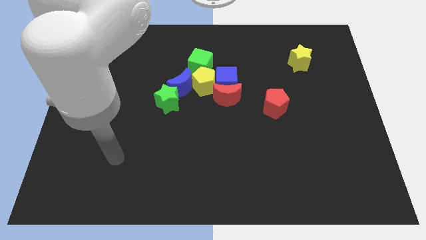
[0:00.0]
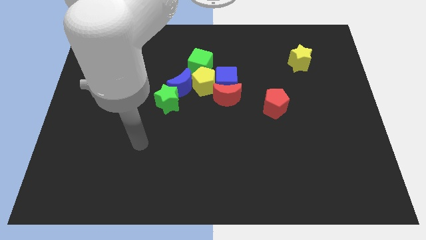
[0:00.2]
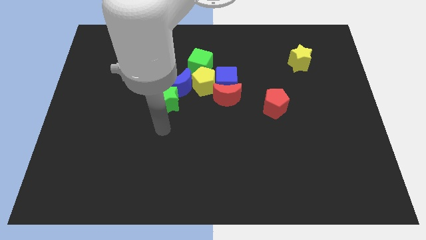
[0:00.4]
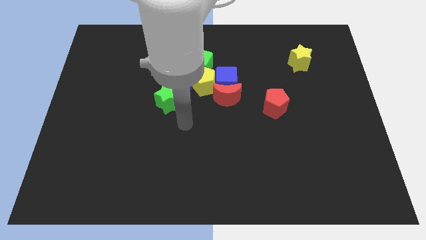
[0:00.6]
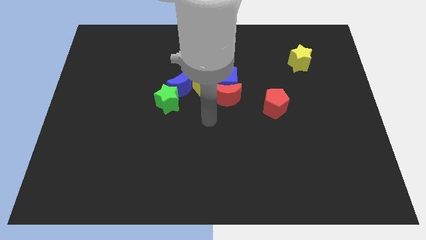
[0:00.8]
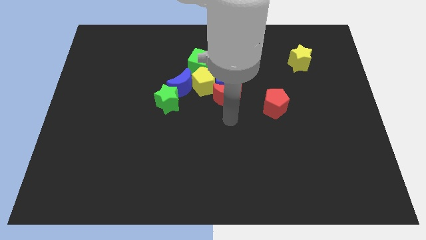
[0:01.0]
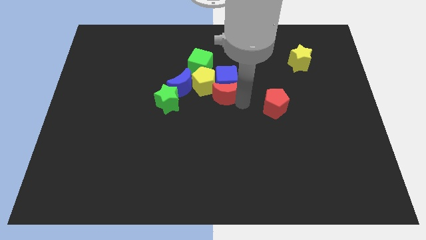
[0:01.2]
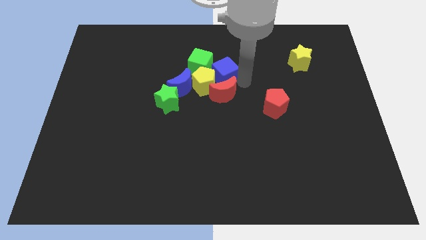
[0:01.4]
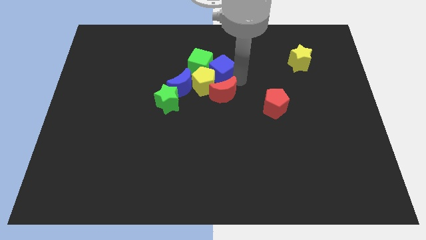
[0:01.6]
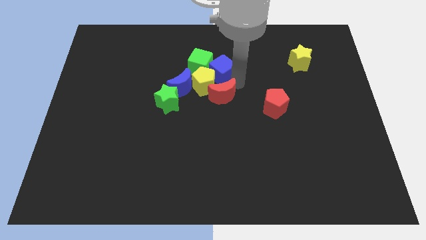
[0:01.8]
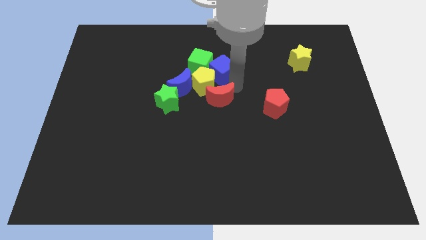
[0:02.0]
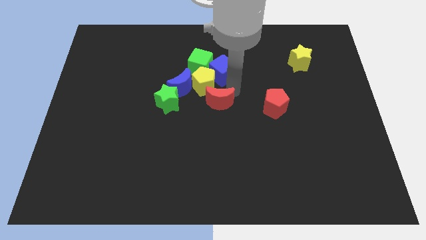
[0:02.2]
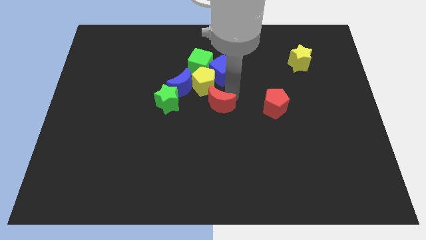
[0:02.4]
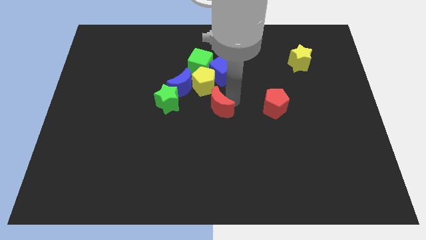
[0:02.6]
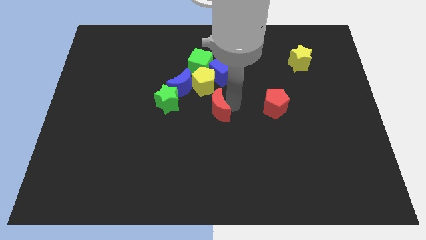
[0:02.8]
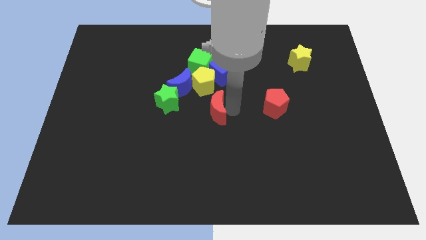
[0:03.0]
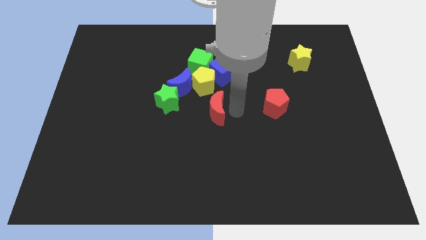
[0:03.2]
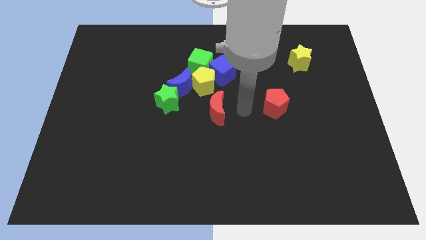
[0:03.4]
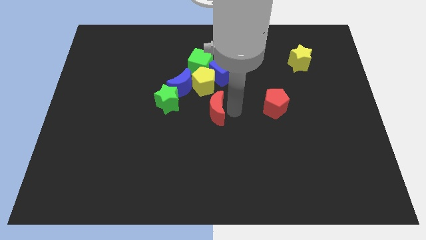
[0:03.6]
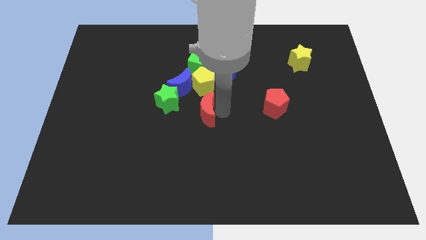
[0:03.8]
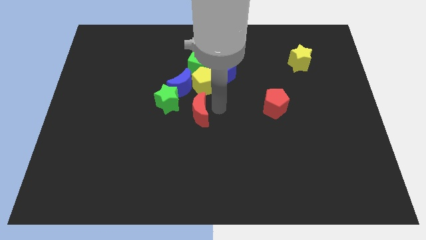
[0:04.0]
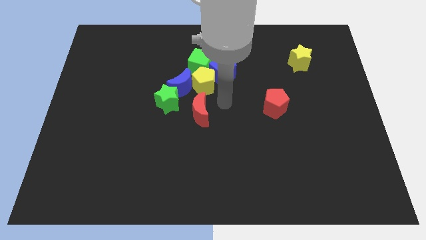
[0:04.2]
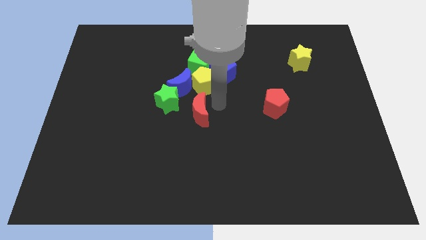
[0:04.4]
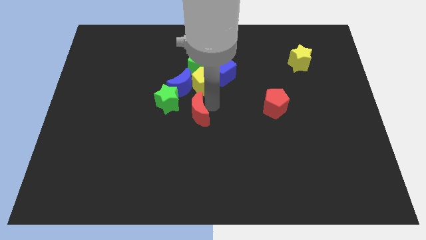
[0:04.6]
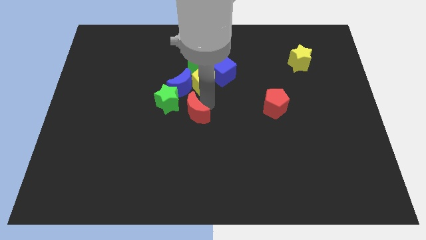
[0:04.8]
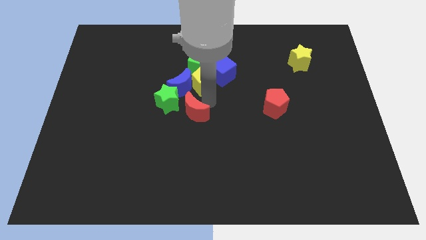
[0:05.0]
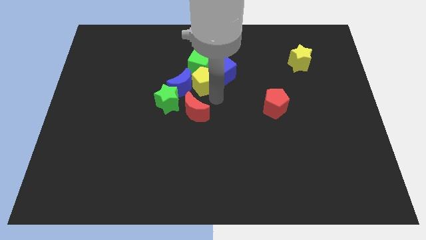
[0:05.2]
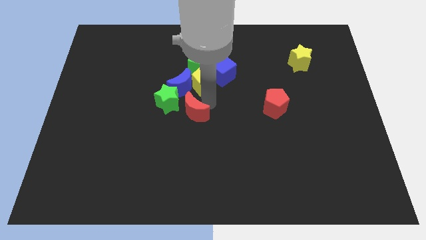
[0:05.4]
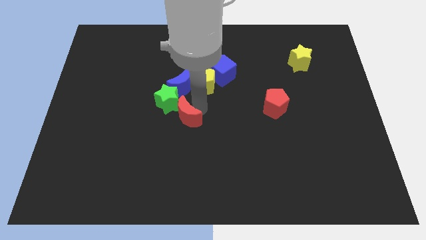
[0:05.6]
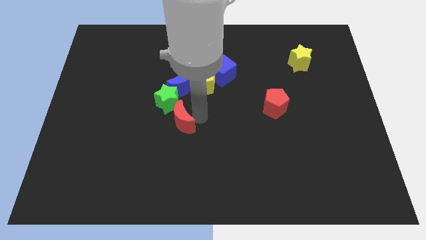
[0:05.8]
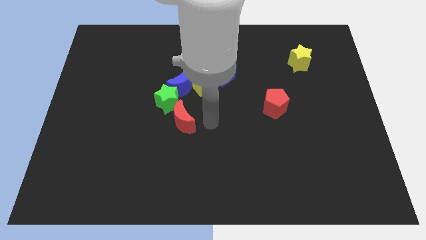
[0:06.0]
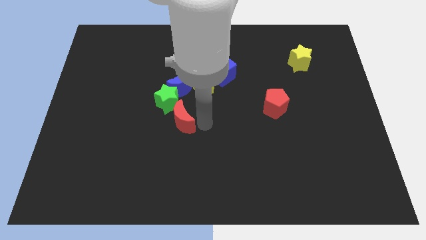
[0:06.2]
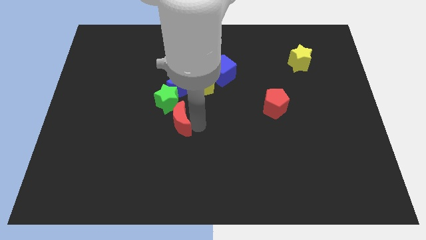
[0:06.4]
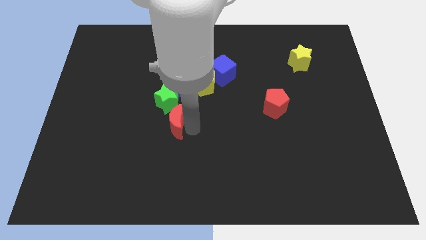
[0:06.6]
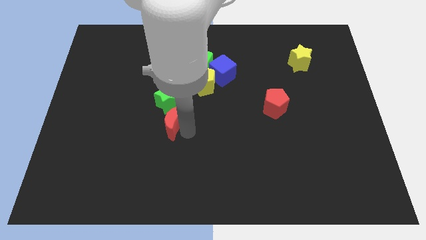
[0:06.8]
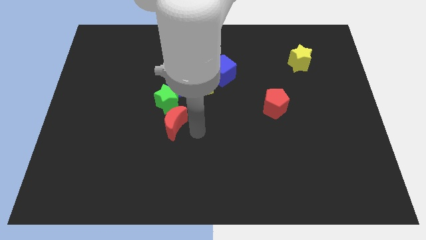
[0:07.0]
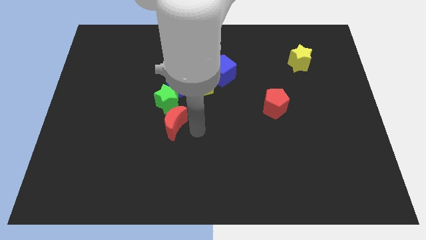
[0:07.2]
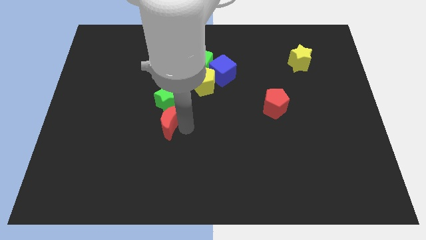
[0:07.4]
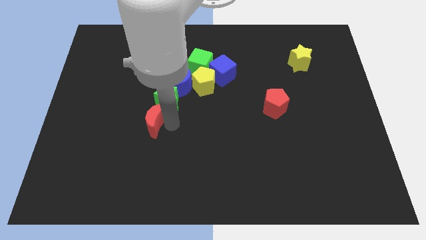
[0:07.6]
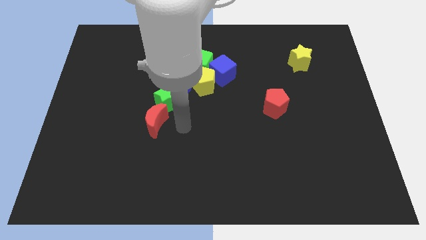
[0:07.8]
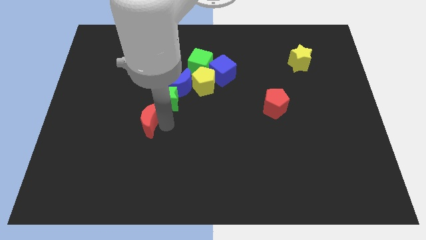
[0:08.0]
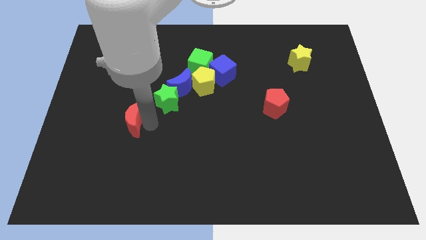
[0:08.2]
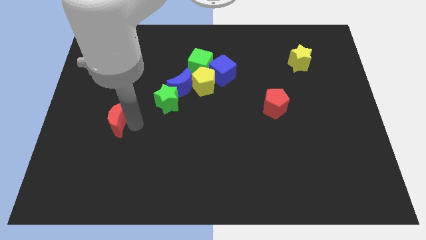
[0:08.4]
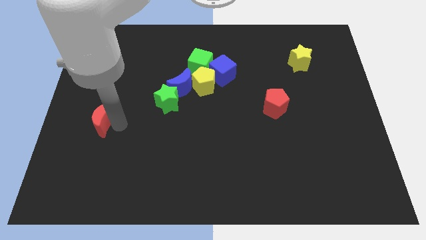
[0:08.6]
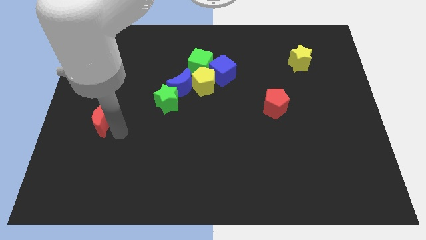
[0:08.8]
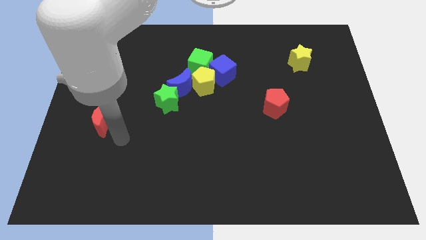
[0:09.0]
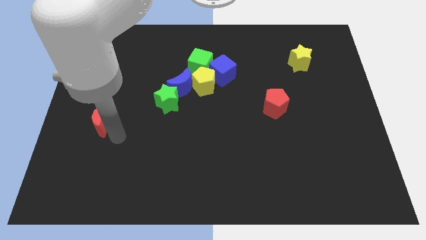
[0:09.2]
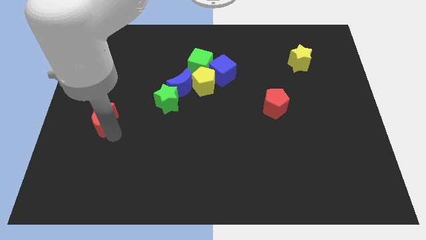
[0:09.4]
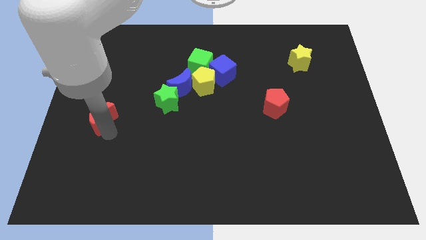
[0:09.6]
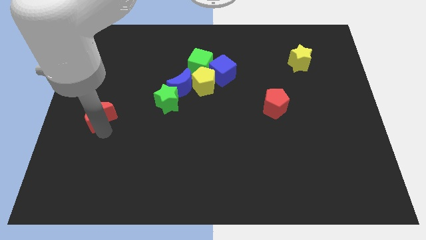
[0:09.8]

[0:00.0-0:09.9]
push the red moon to the left side

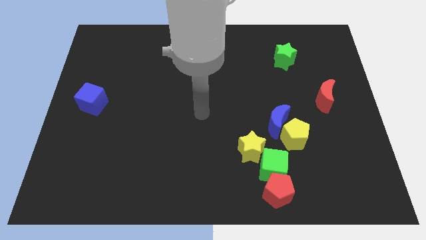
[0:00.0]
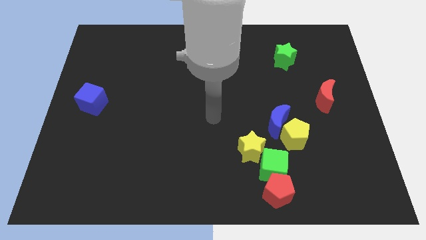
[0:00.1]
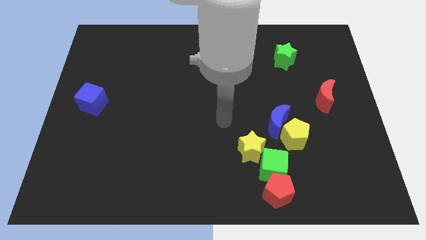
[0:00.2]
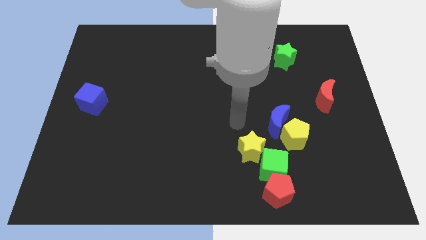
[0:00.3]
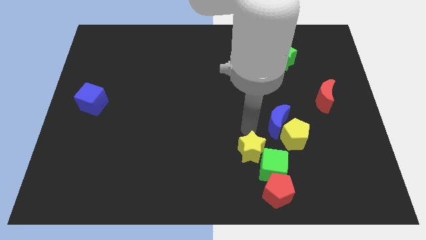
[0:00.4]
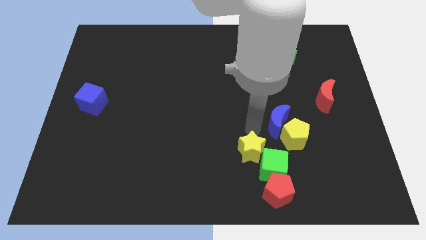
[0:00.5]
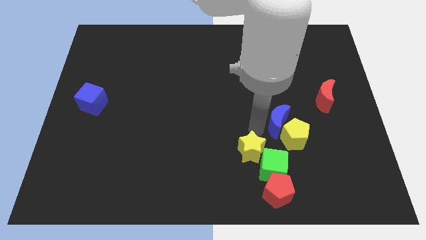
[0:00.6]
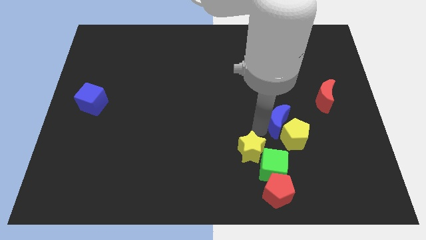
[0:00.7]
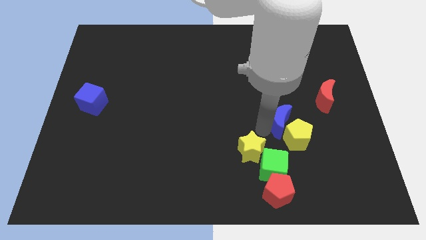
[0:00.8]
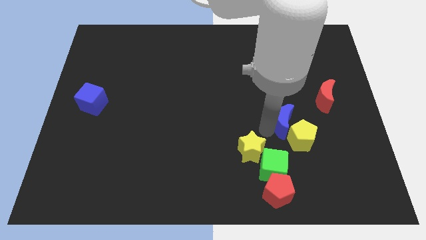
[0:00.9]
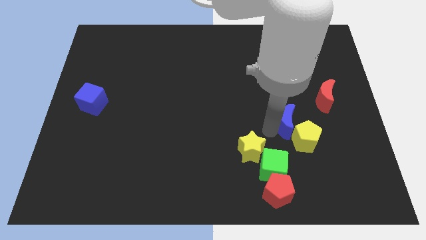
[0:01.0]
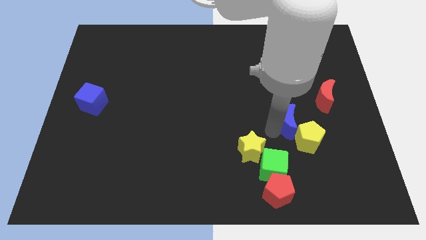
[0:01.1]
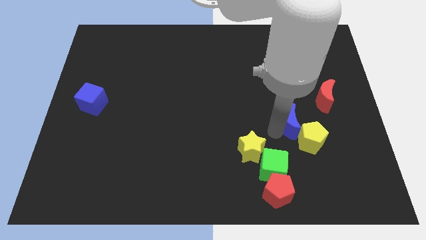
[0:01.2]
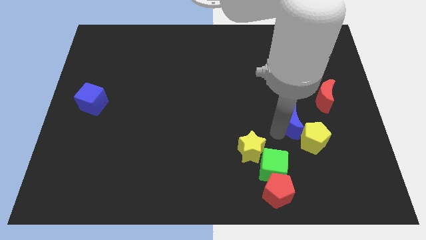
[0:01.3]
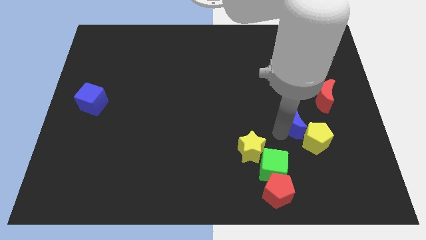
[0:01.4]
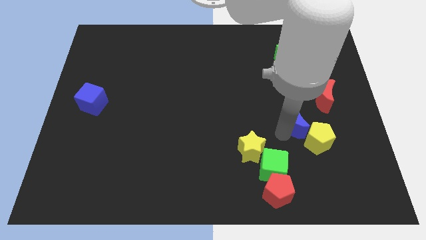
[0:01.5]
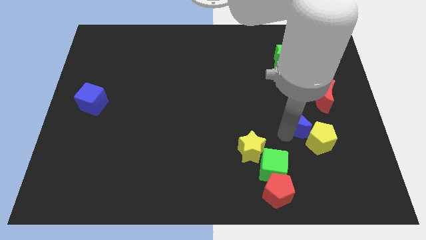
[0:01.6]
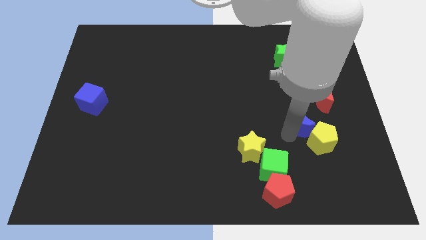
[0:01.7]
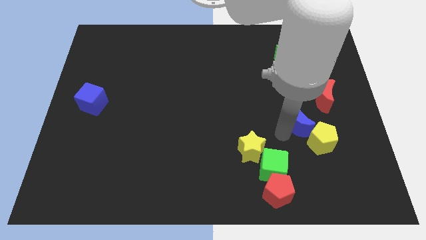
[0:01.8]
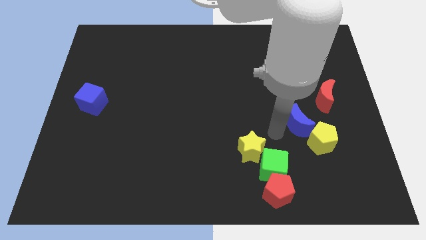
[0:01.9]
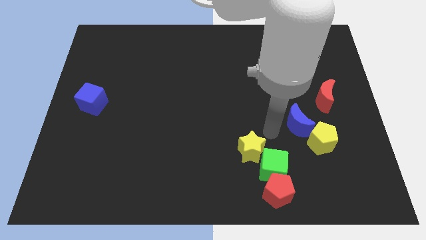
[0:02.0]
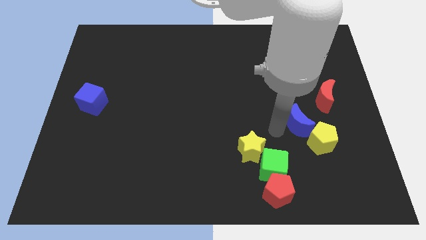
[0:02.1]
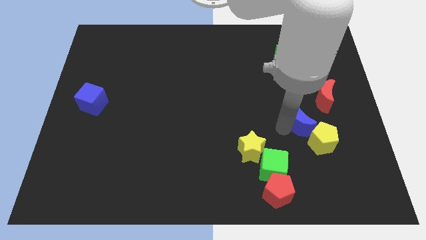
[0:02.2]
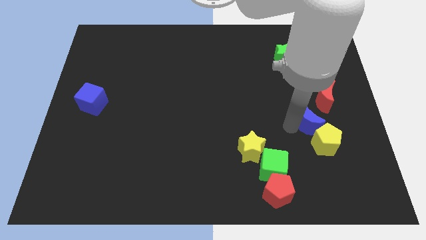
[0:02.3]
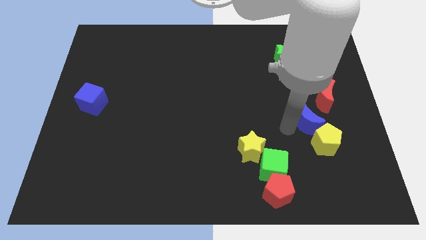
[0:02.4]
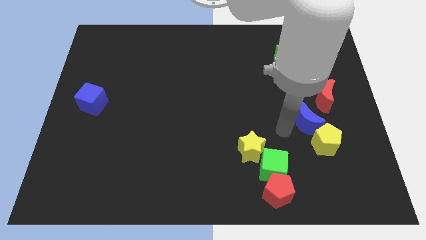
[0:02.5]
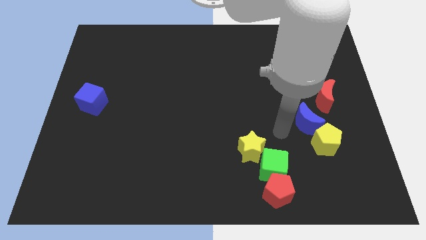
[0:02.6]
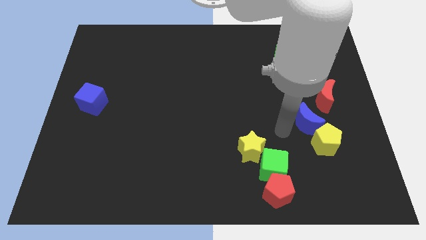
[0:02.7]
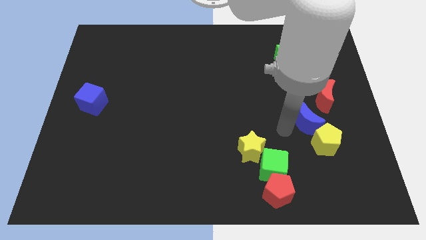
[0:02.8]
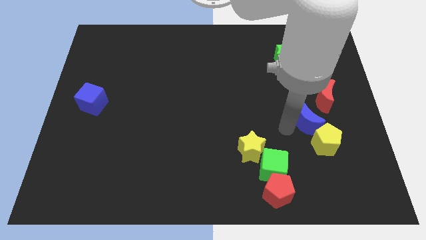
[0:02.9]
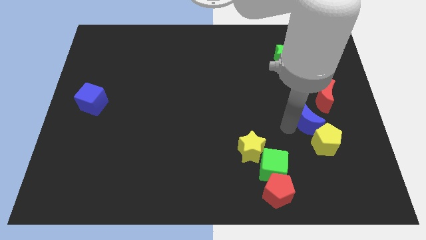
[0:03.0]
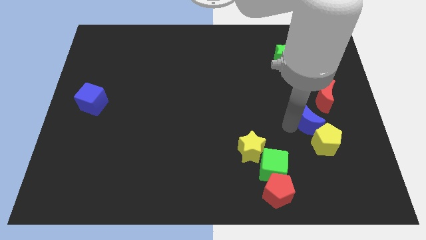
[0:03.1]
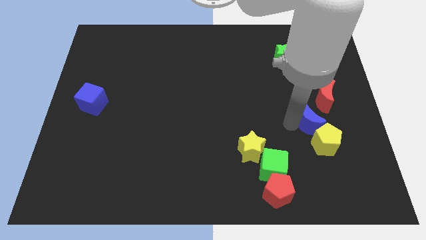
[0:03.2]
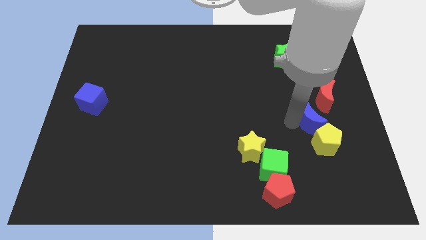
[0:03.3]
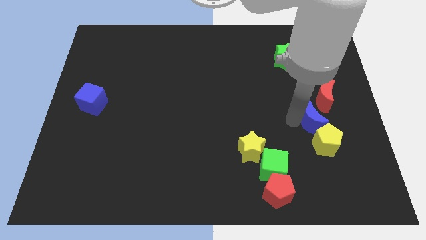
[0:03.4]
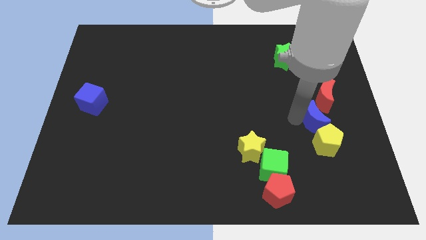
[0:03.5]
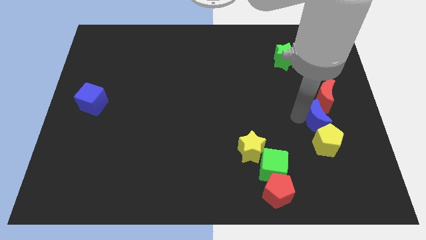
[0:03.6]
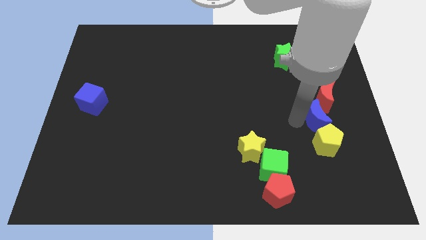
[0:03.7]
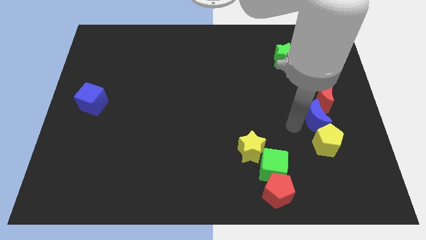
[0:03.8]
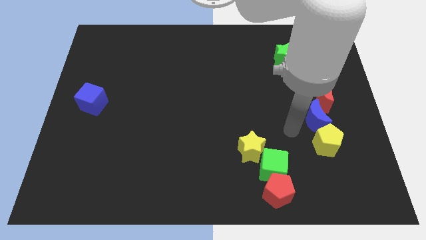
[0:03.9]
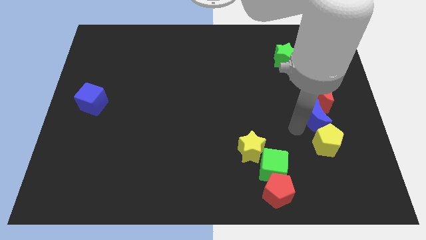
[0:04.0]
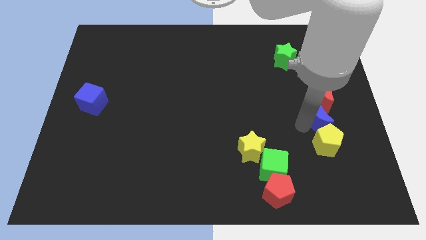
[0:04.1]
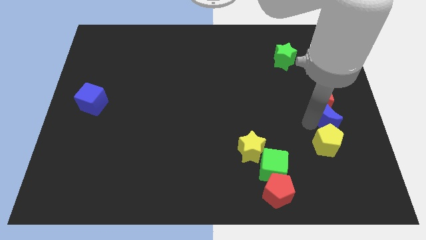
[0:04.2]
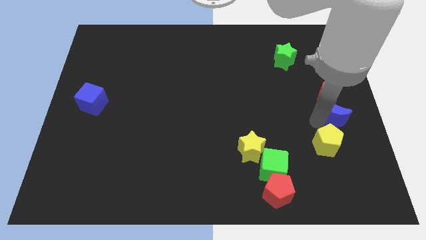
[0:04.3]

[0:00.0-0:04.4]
push the blue moon to the right side of the board
